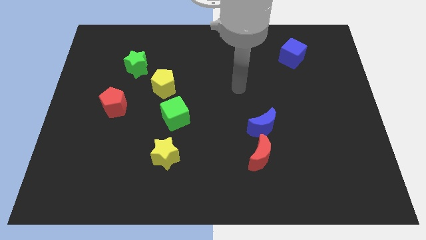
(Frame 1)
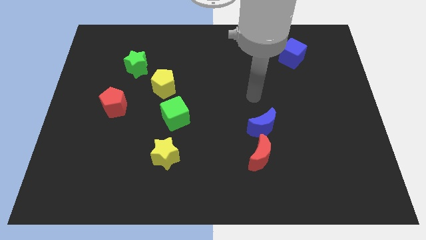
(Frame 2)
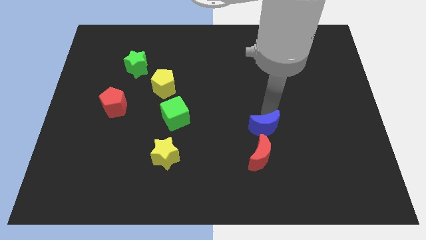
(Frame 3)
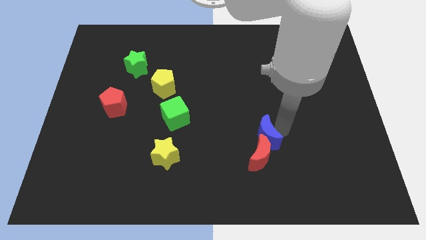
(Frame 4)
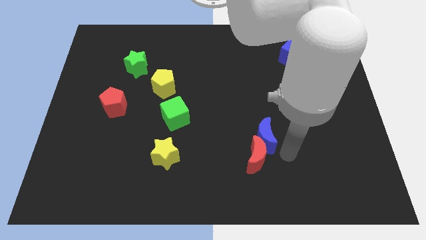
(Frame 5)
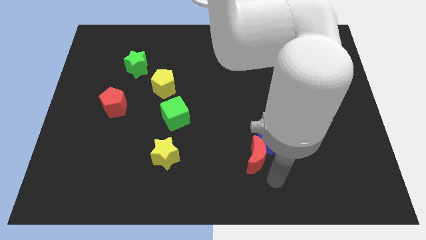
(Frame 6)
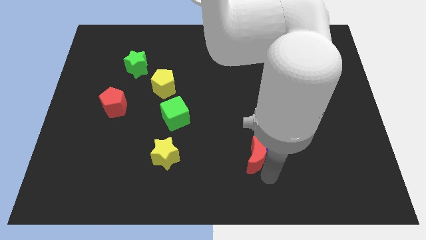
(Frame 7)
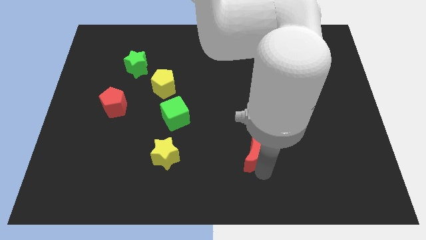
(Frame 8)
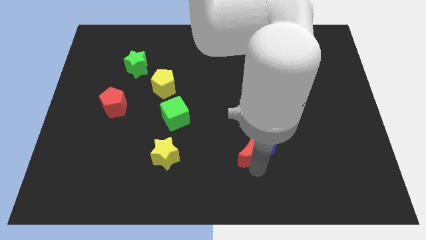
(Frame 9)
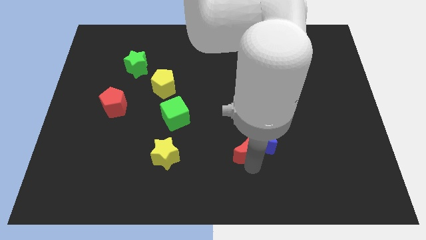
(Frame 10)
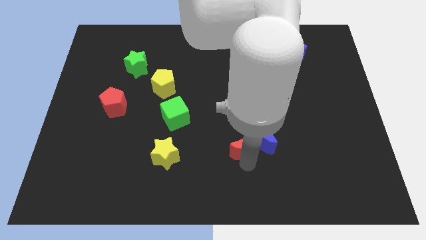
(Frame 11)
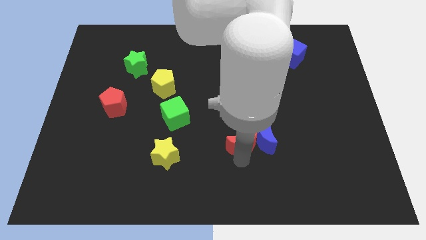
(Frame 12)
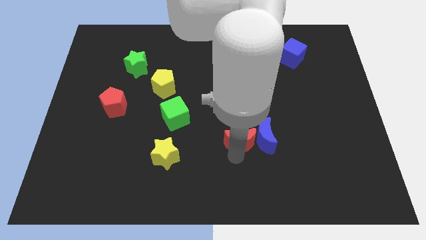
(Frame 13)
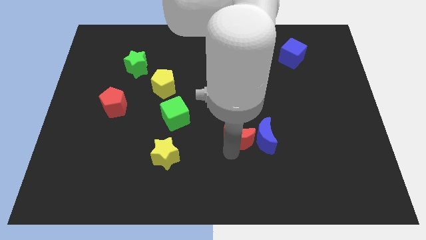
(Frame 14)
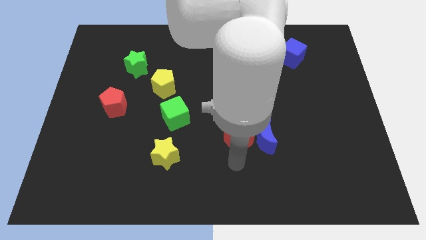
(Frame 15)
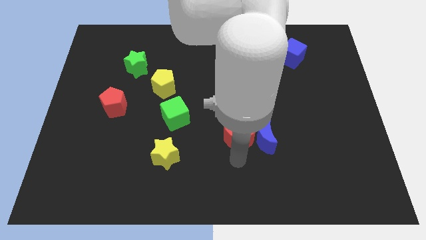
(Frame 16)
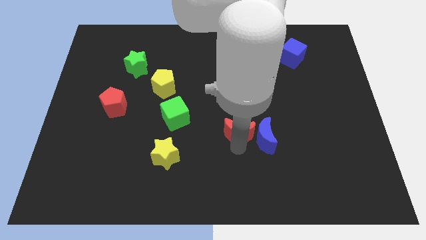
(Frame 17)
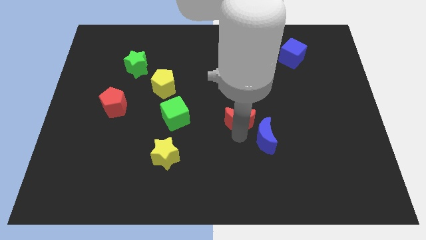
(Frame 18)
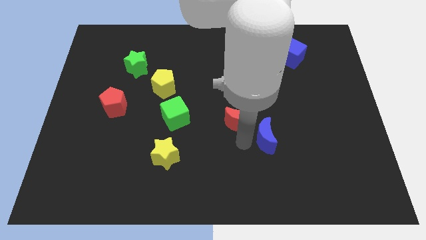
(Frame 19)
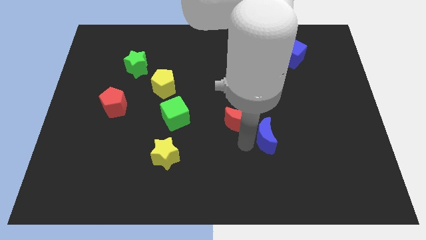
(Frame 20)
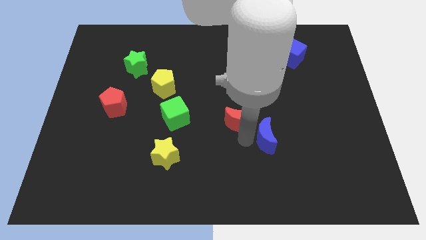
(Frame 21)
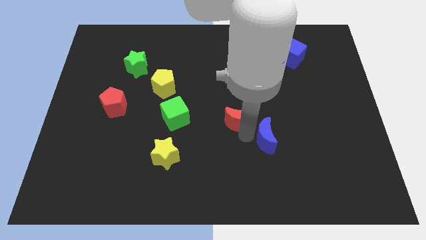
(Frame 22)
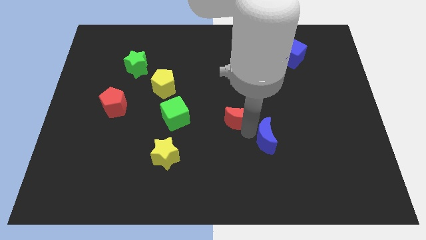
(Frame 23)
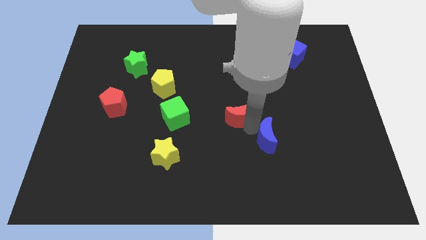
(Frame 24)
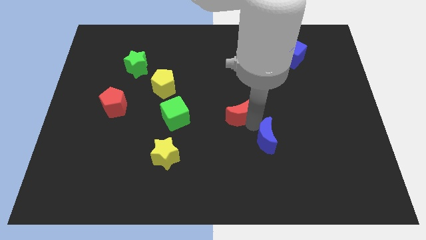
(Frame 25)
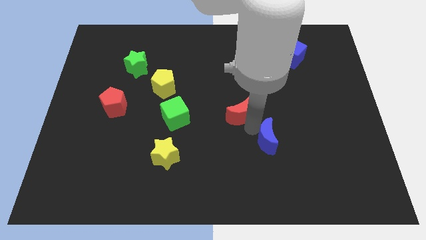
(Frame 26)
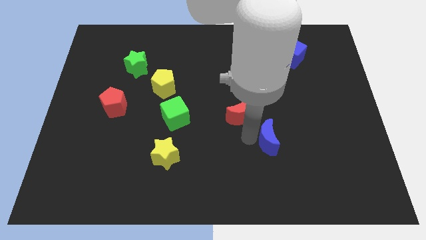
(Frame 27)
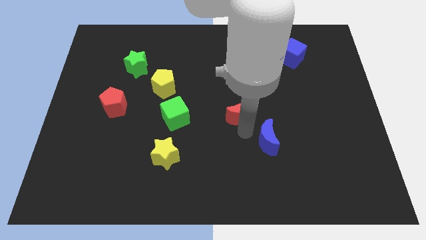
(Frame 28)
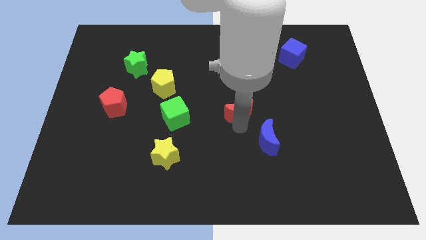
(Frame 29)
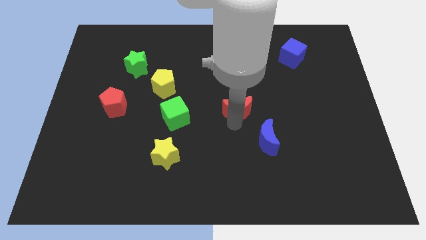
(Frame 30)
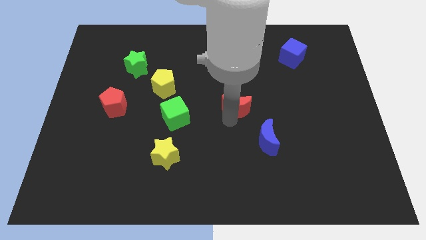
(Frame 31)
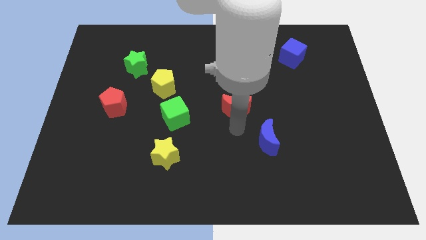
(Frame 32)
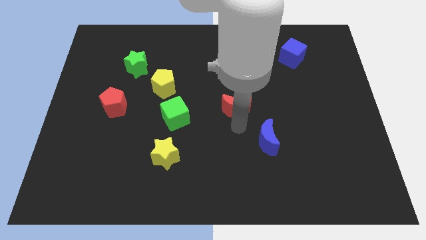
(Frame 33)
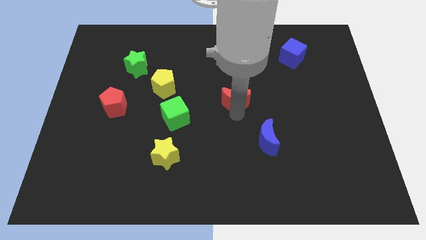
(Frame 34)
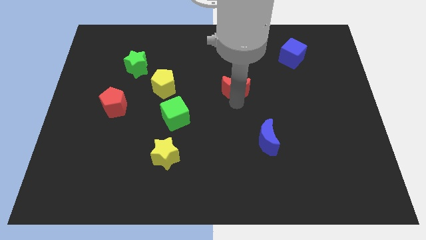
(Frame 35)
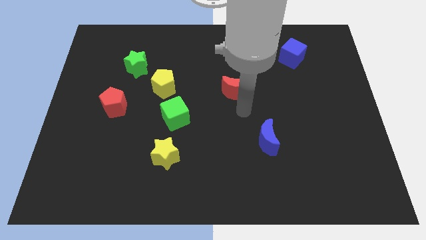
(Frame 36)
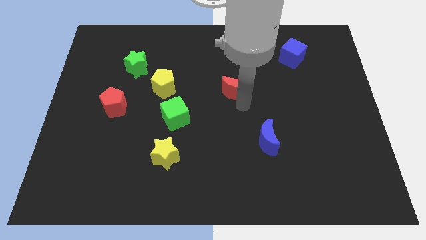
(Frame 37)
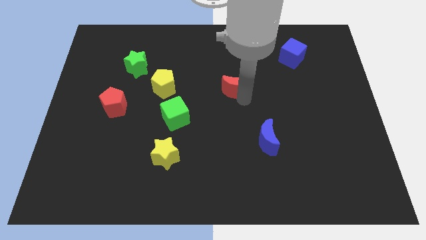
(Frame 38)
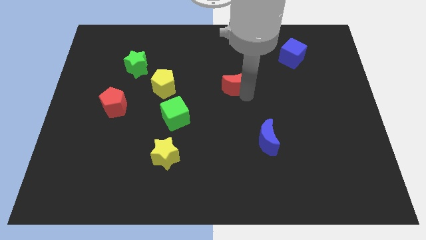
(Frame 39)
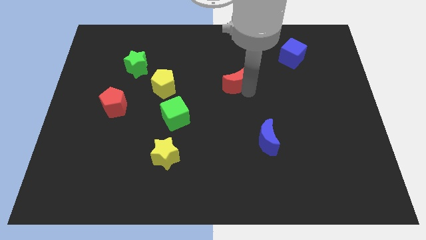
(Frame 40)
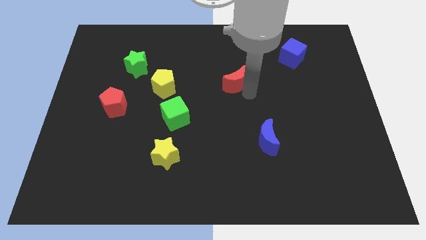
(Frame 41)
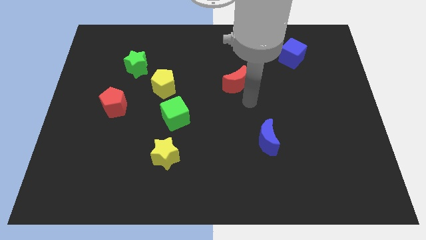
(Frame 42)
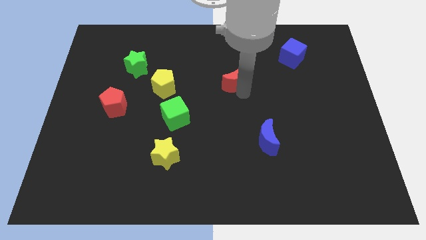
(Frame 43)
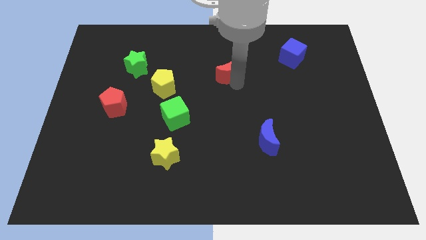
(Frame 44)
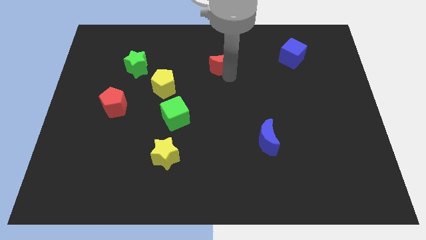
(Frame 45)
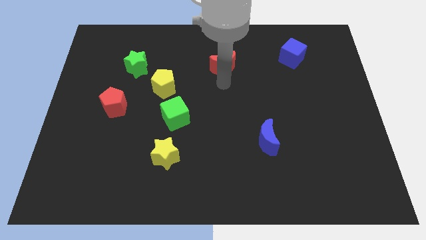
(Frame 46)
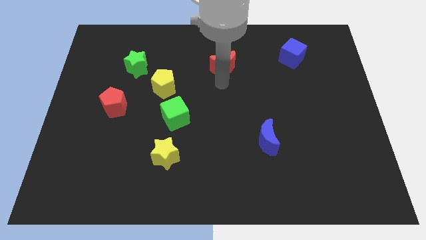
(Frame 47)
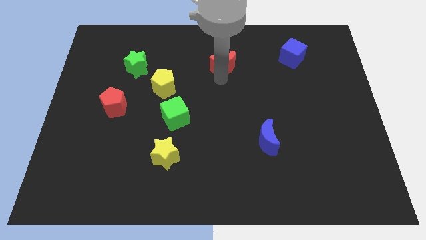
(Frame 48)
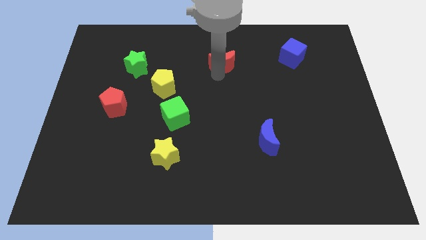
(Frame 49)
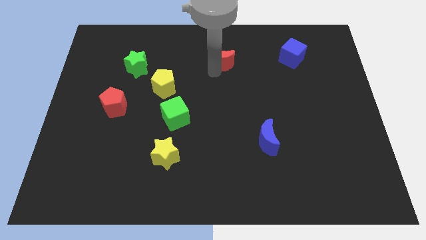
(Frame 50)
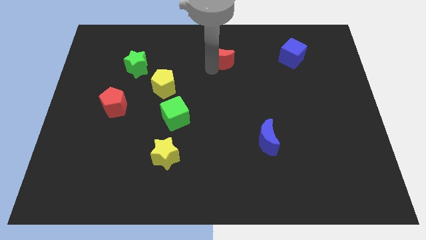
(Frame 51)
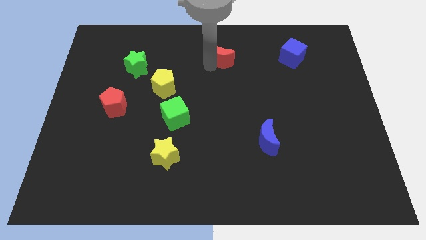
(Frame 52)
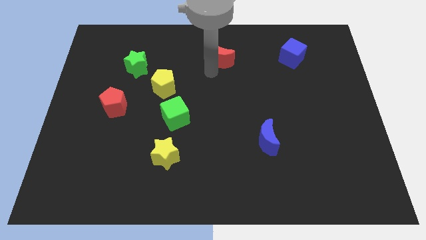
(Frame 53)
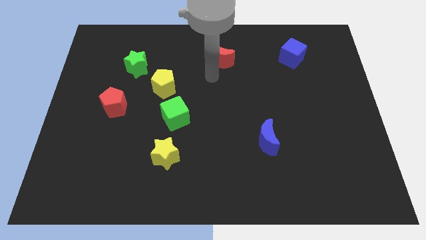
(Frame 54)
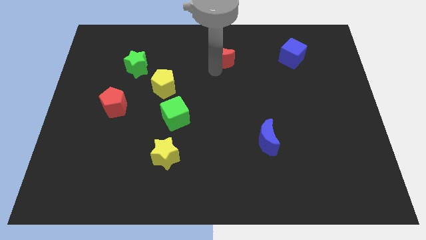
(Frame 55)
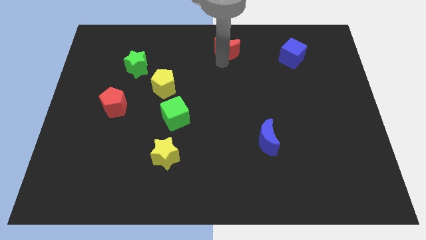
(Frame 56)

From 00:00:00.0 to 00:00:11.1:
move the red moon to the towards your base

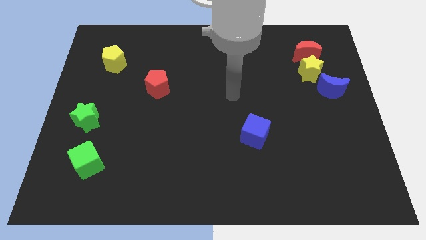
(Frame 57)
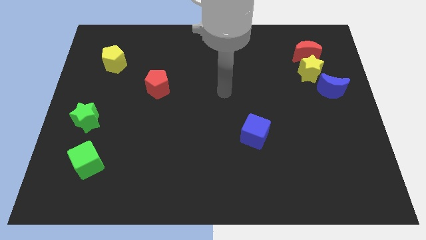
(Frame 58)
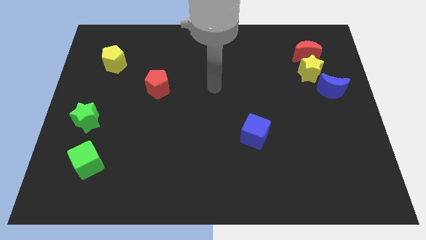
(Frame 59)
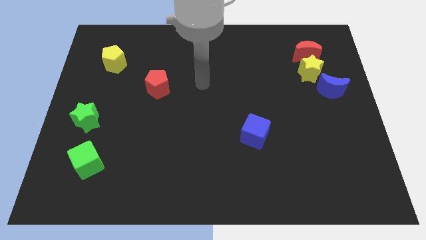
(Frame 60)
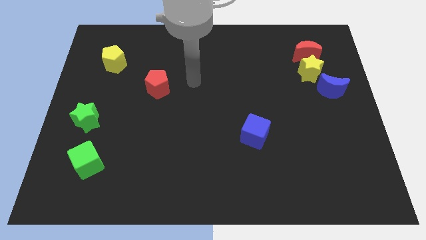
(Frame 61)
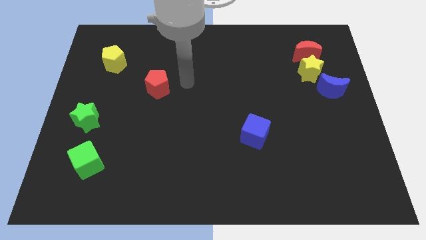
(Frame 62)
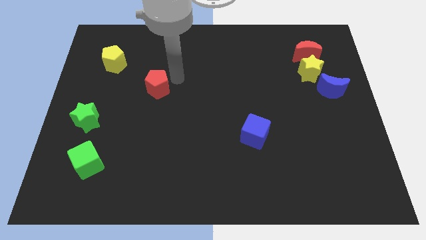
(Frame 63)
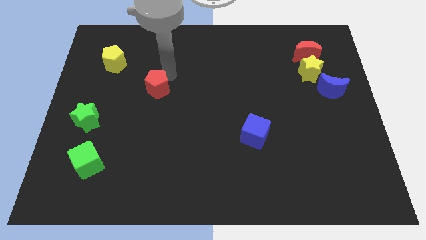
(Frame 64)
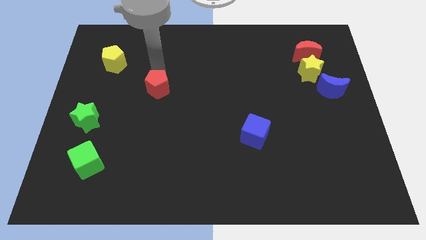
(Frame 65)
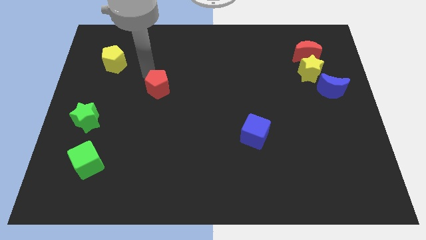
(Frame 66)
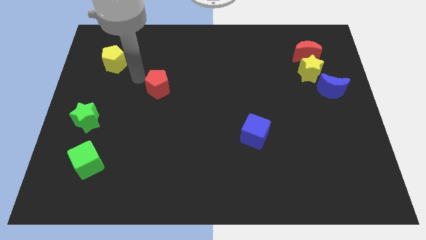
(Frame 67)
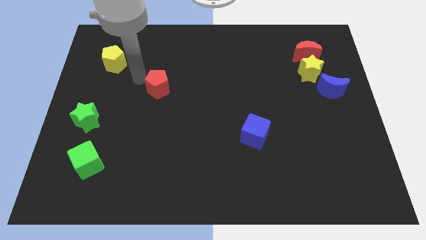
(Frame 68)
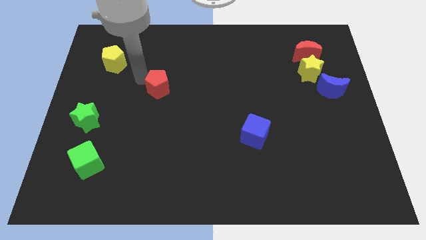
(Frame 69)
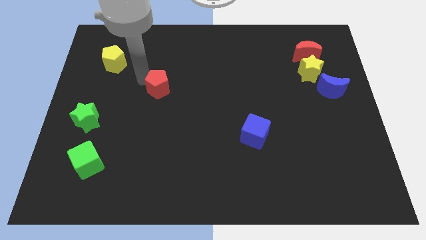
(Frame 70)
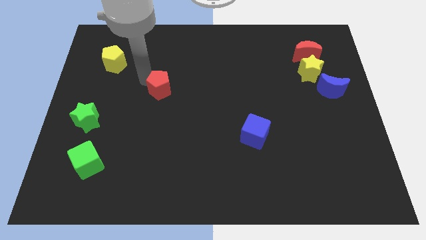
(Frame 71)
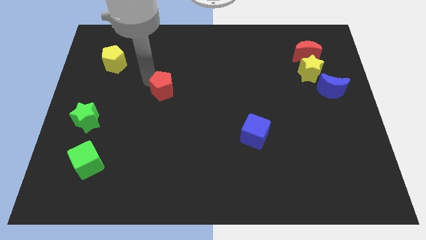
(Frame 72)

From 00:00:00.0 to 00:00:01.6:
put the red pentagon to the middle of the board

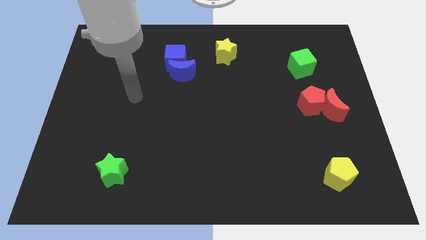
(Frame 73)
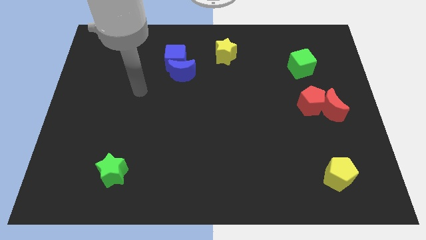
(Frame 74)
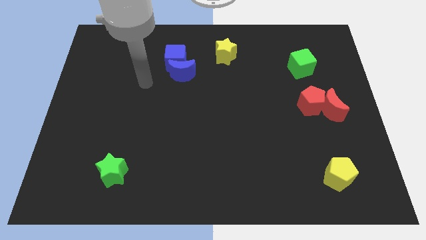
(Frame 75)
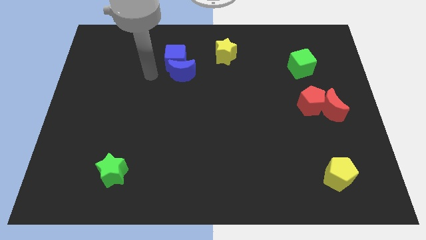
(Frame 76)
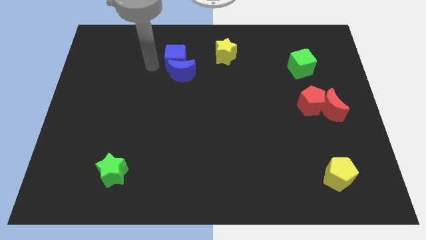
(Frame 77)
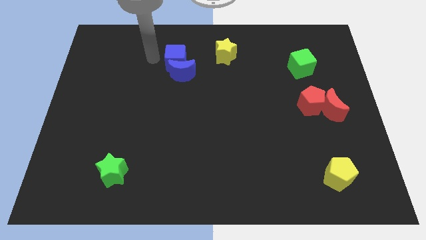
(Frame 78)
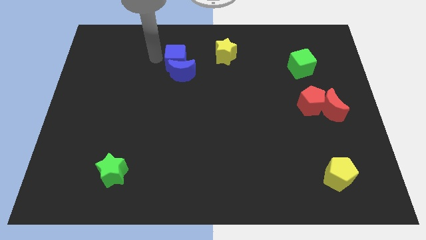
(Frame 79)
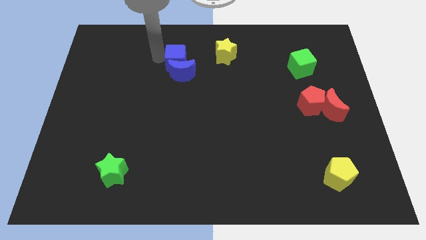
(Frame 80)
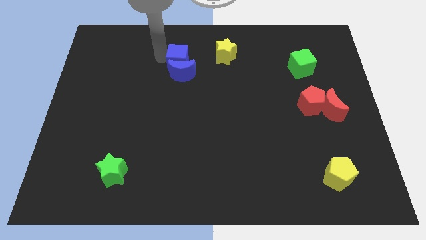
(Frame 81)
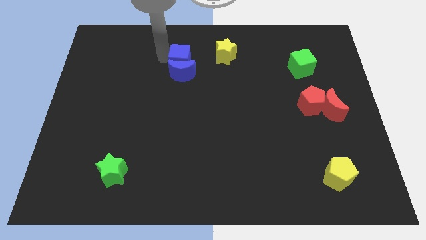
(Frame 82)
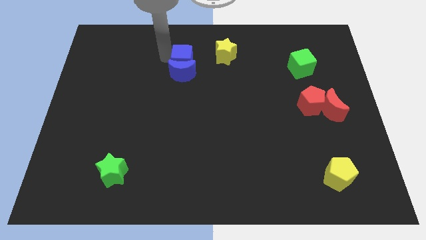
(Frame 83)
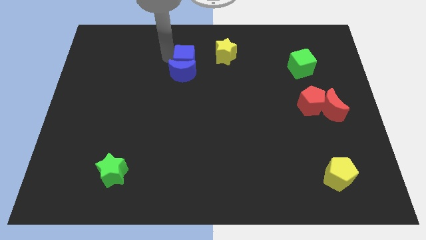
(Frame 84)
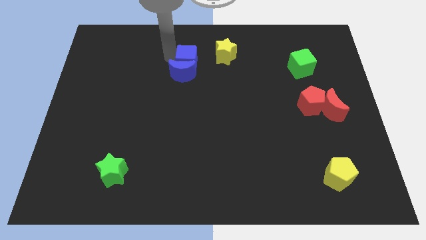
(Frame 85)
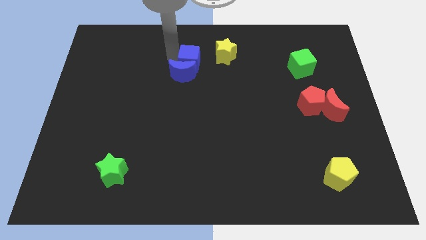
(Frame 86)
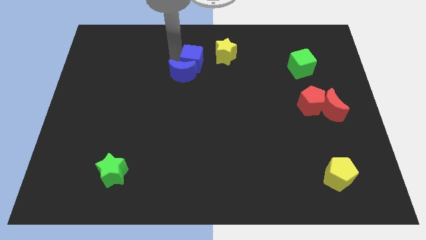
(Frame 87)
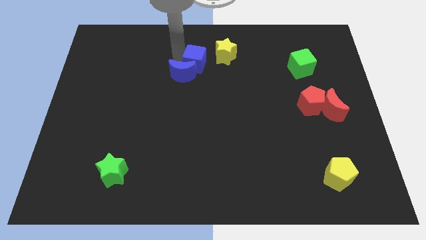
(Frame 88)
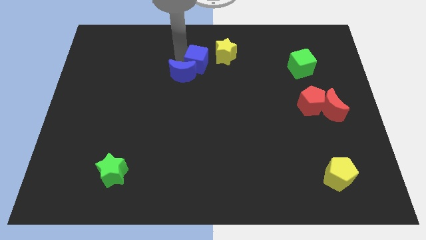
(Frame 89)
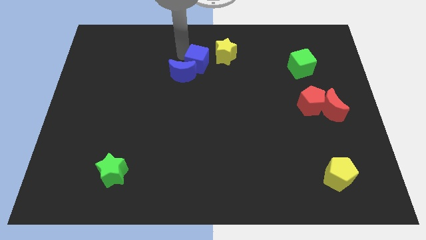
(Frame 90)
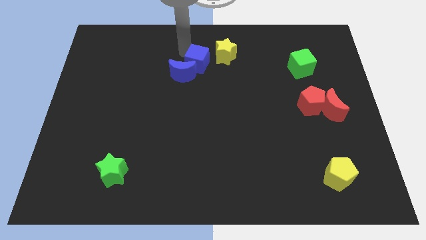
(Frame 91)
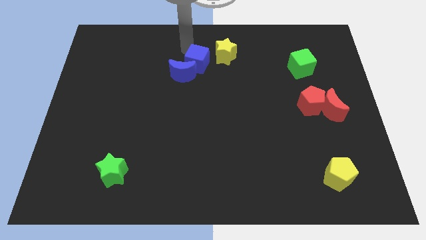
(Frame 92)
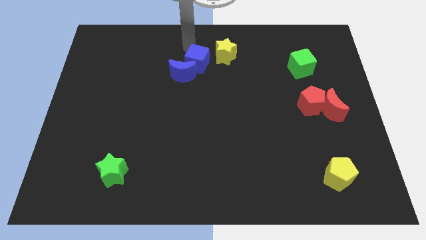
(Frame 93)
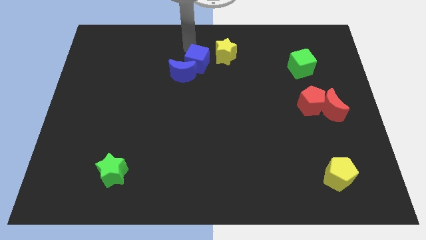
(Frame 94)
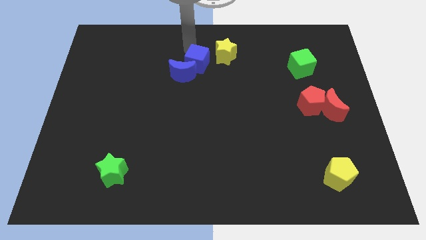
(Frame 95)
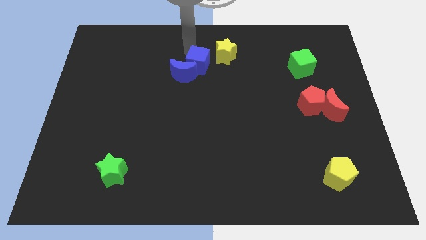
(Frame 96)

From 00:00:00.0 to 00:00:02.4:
push the blue cube to the middle
